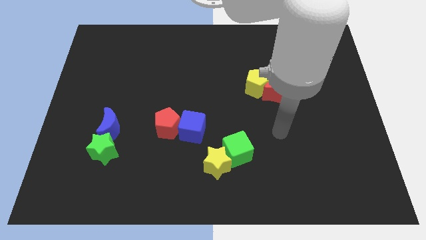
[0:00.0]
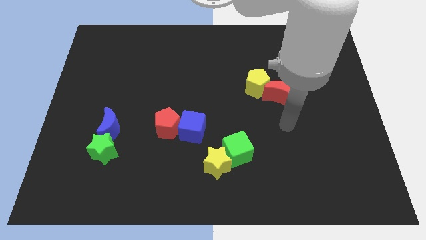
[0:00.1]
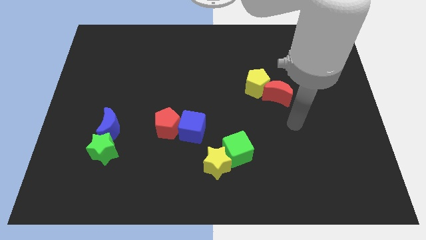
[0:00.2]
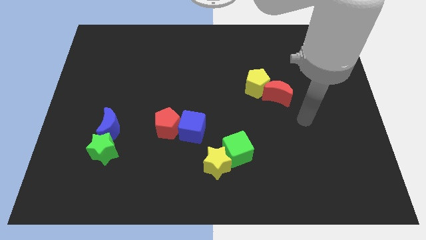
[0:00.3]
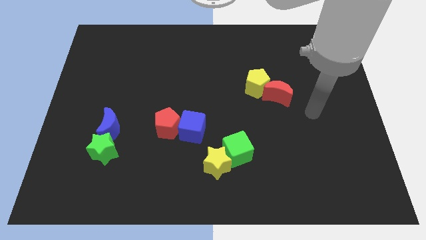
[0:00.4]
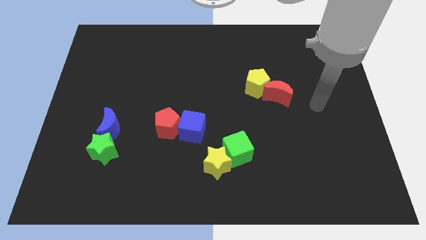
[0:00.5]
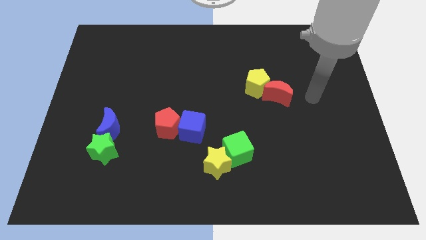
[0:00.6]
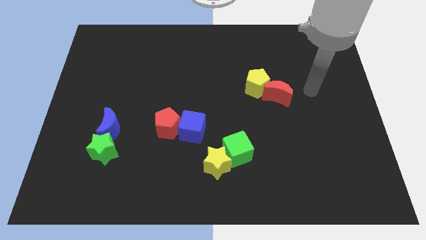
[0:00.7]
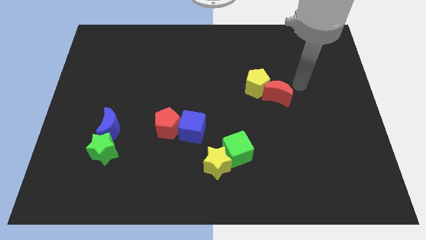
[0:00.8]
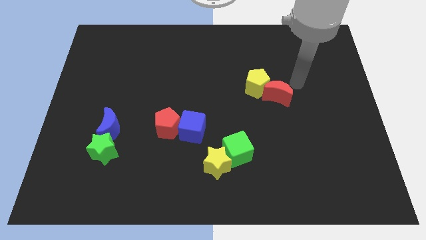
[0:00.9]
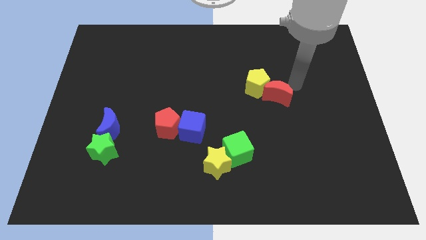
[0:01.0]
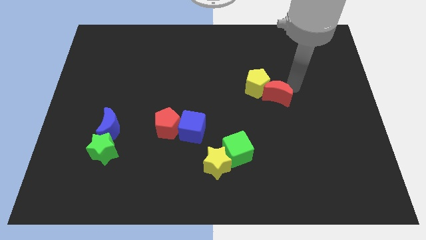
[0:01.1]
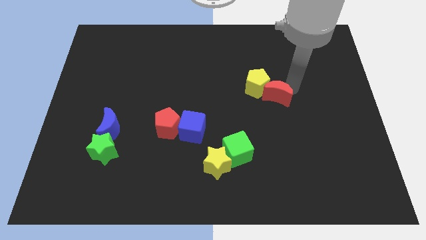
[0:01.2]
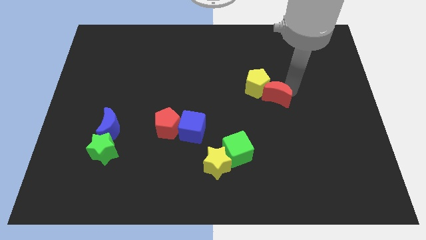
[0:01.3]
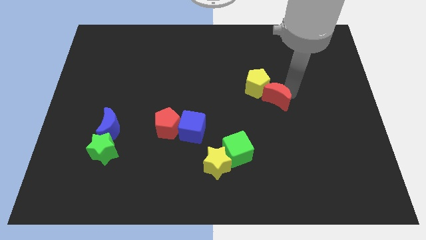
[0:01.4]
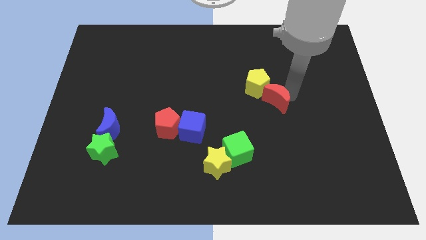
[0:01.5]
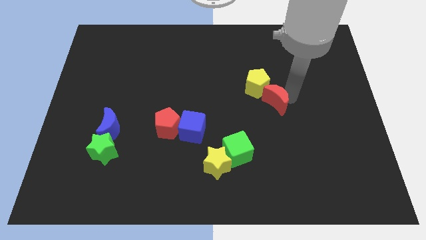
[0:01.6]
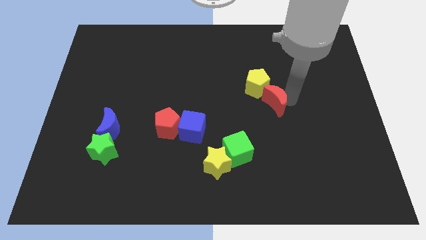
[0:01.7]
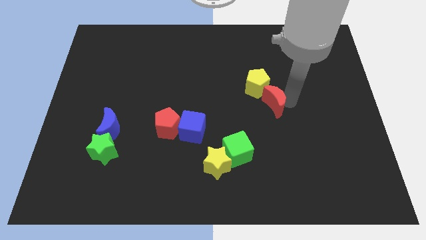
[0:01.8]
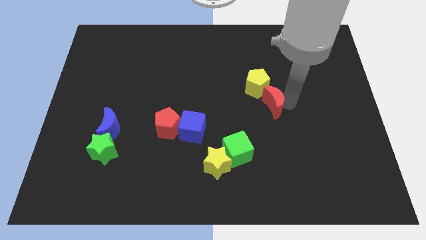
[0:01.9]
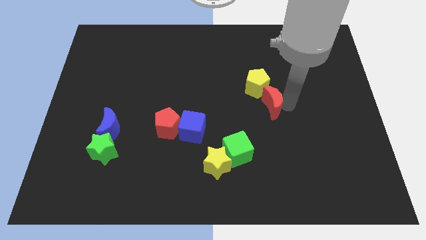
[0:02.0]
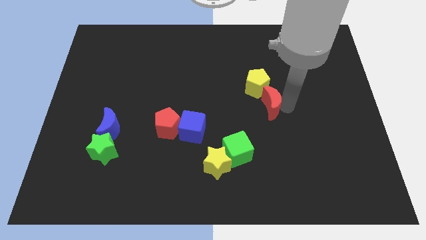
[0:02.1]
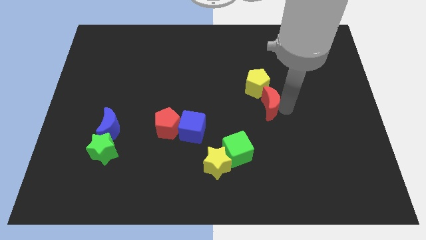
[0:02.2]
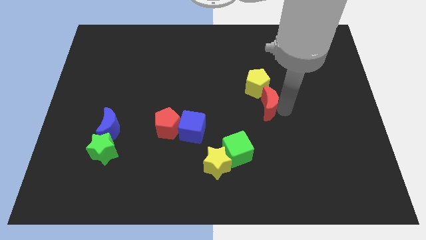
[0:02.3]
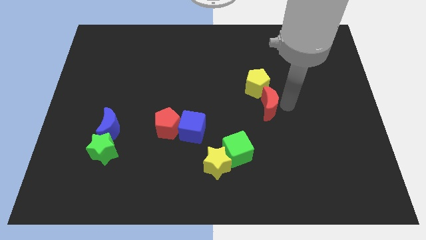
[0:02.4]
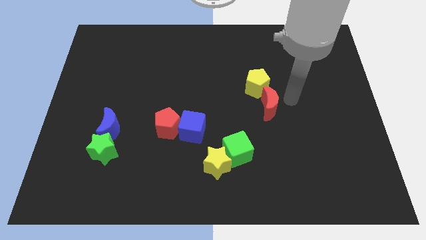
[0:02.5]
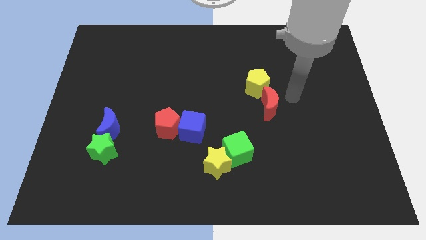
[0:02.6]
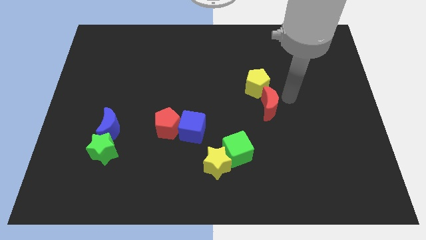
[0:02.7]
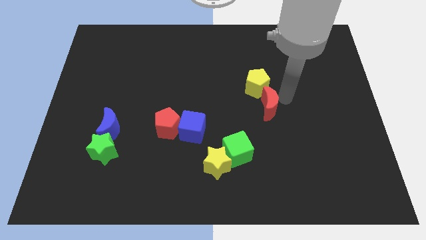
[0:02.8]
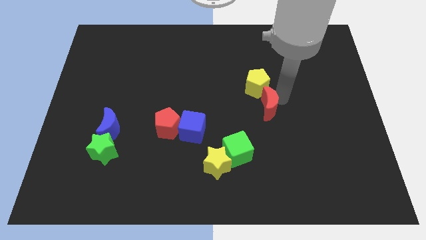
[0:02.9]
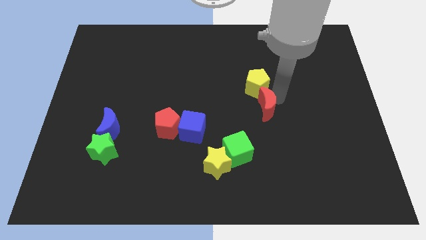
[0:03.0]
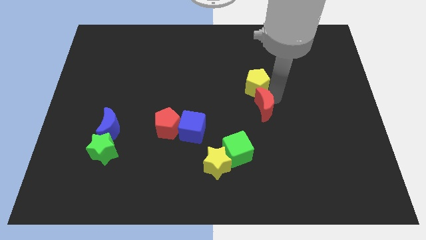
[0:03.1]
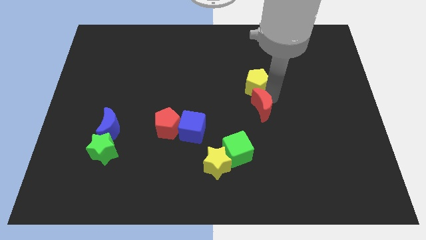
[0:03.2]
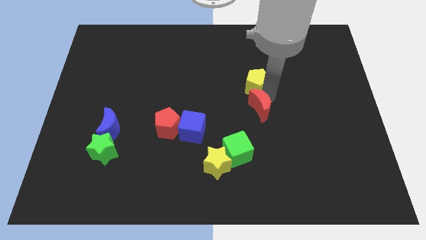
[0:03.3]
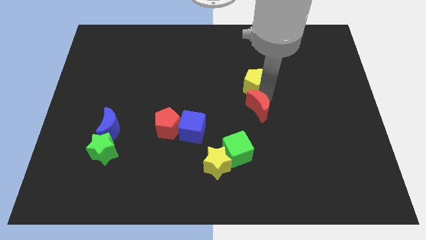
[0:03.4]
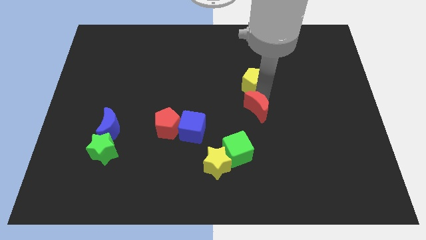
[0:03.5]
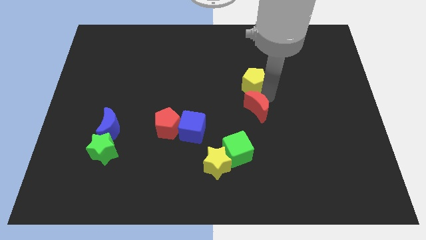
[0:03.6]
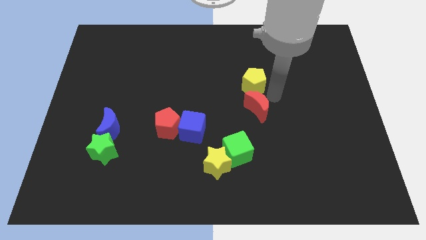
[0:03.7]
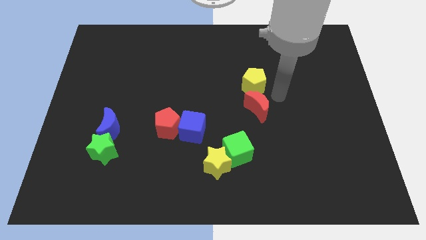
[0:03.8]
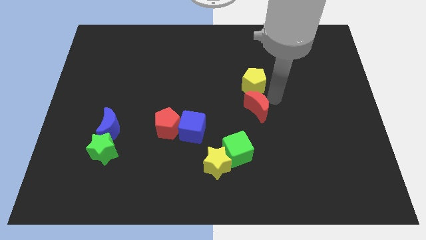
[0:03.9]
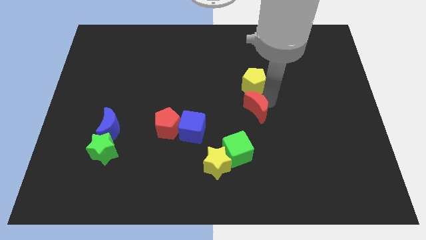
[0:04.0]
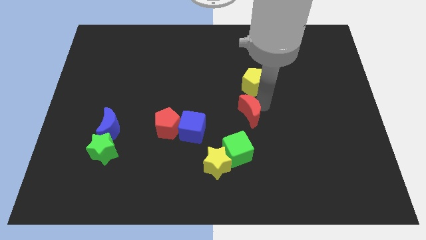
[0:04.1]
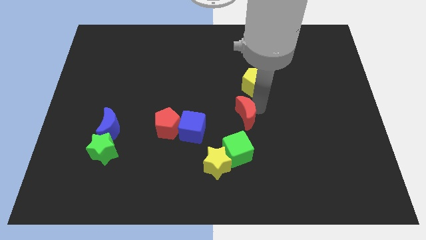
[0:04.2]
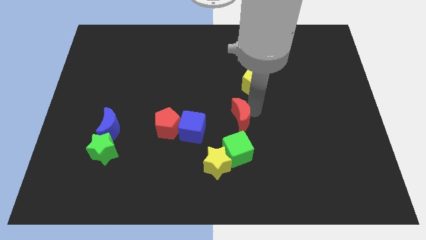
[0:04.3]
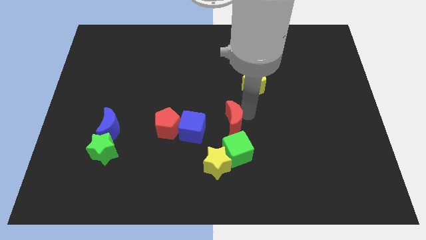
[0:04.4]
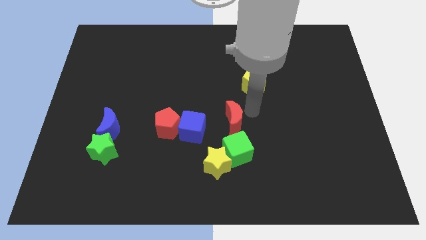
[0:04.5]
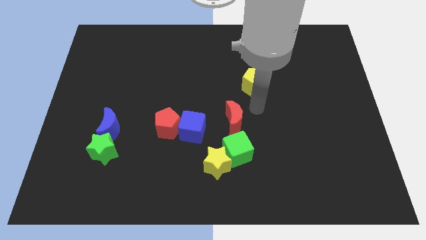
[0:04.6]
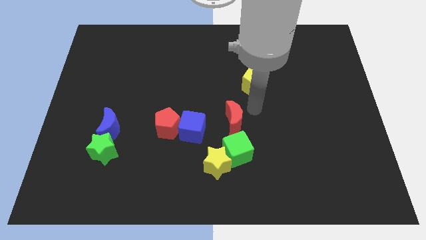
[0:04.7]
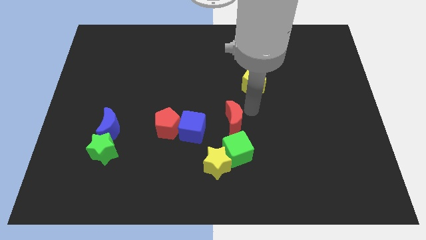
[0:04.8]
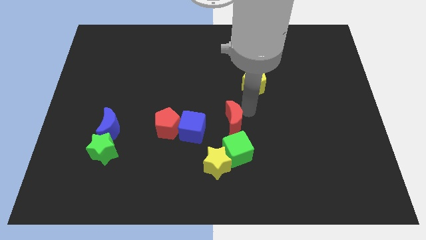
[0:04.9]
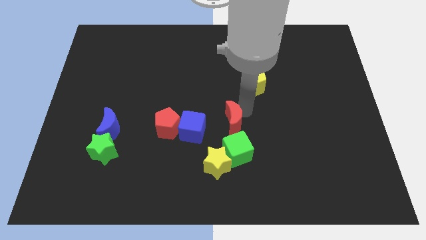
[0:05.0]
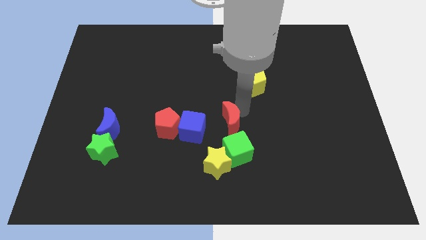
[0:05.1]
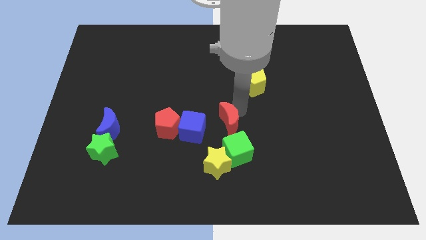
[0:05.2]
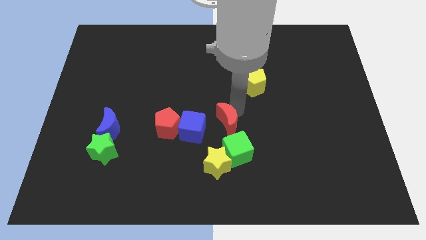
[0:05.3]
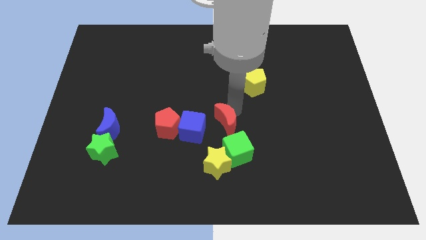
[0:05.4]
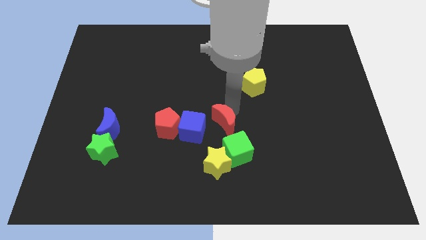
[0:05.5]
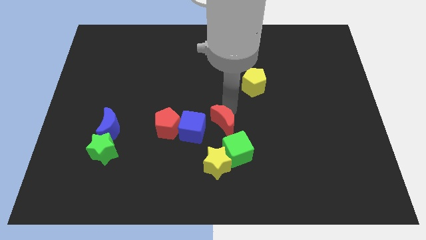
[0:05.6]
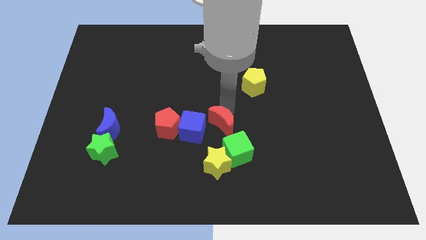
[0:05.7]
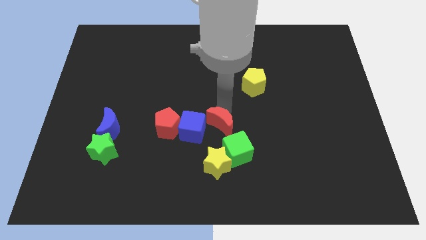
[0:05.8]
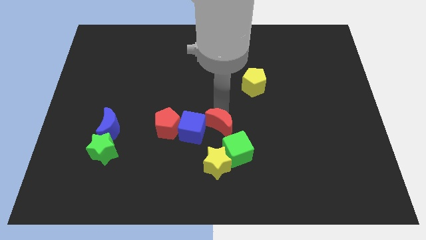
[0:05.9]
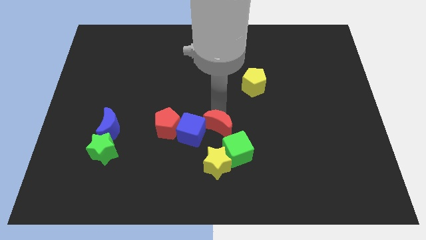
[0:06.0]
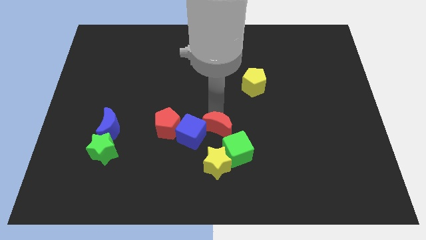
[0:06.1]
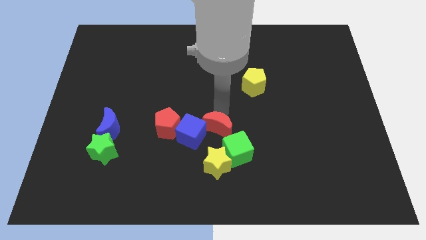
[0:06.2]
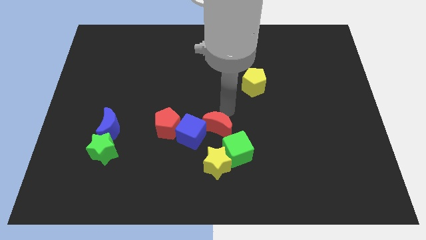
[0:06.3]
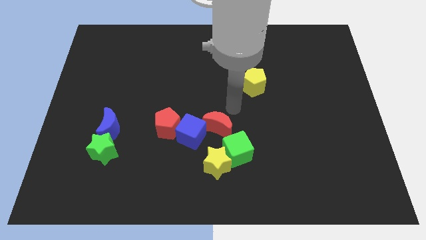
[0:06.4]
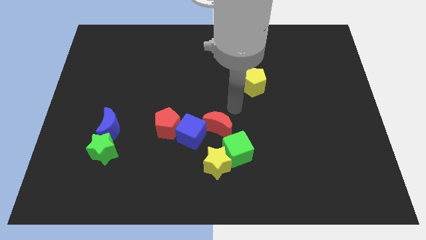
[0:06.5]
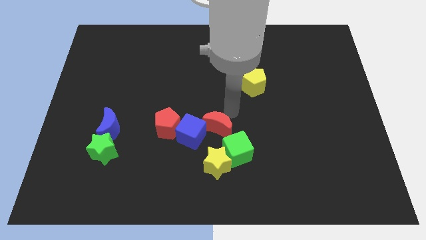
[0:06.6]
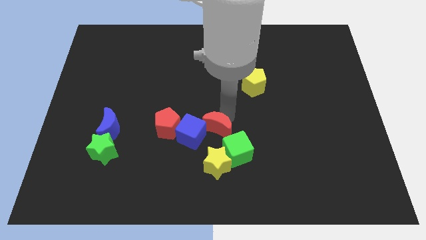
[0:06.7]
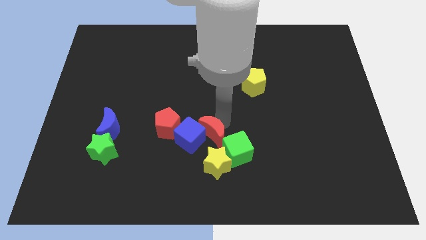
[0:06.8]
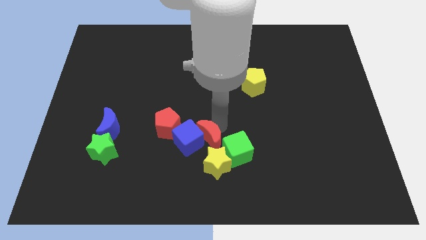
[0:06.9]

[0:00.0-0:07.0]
push the red moon to the bottom right of the red pentagon
